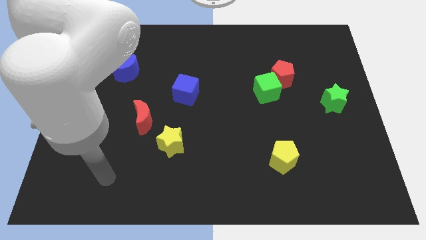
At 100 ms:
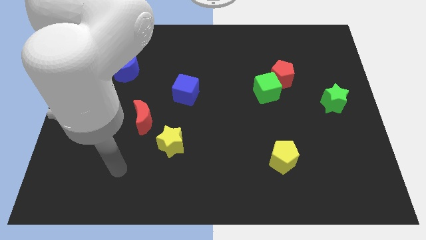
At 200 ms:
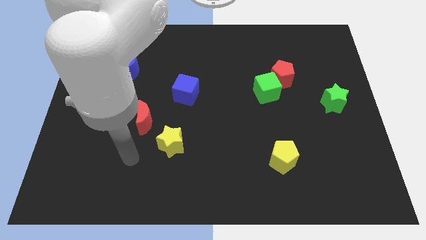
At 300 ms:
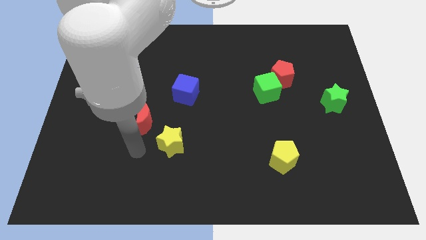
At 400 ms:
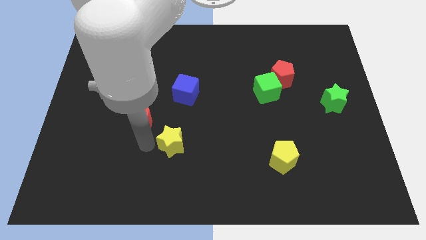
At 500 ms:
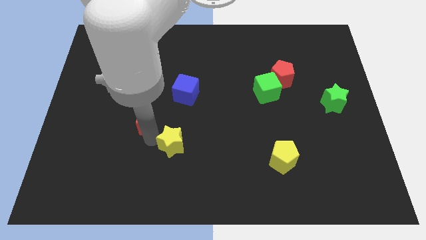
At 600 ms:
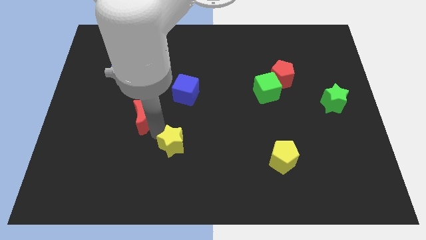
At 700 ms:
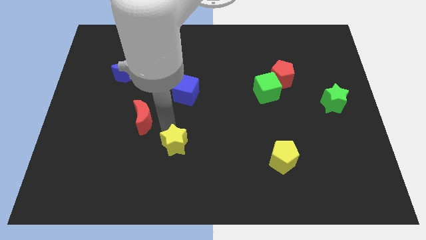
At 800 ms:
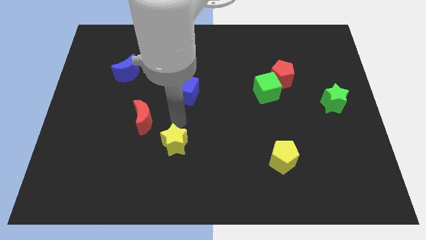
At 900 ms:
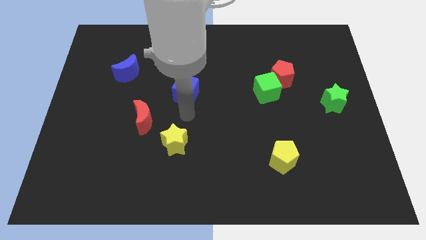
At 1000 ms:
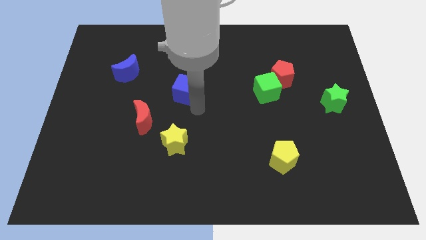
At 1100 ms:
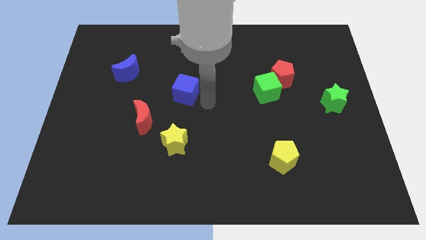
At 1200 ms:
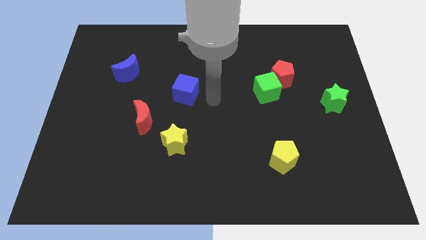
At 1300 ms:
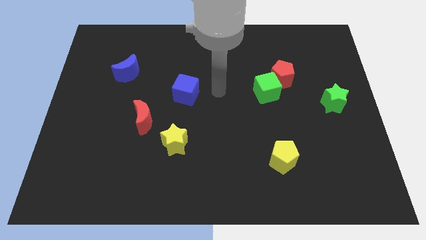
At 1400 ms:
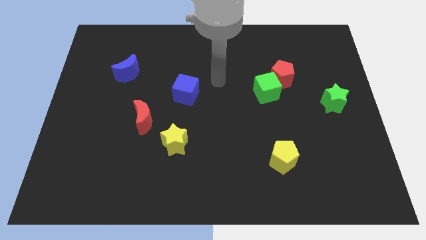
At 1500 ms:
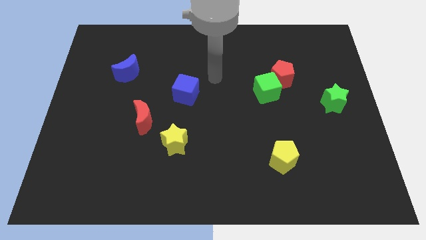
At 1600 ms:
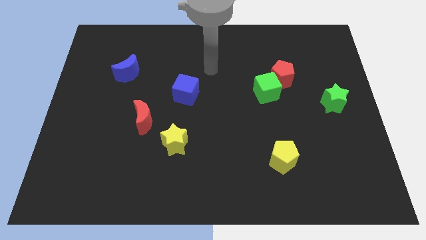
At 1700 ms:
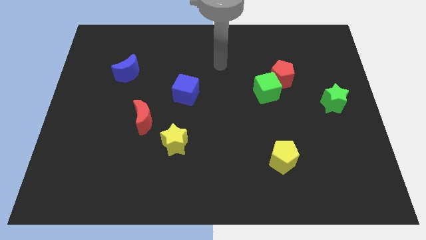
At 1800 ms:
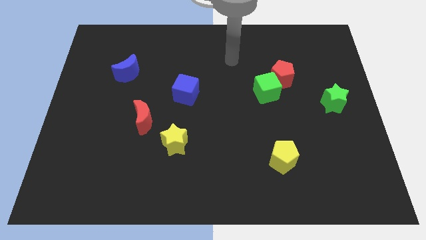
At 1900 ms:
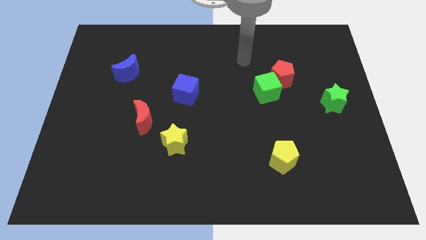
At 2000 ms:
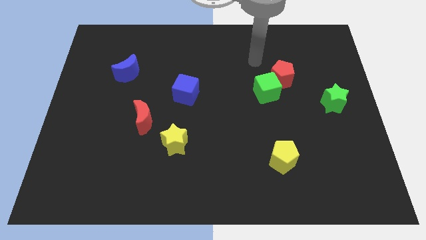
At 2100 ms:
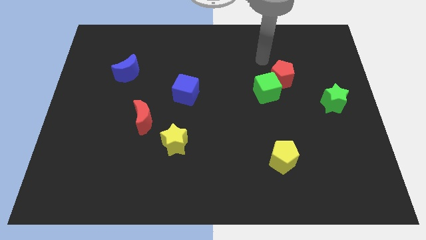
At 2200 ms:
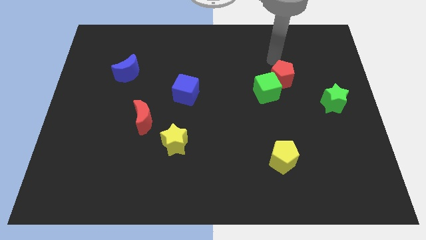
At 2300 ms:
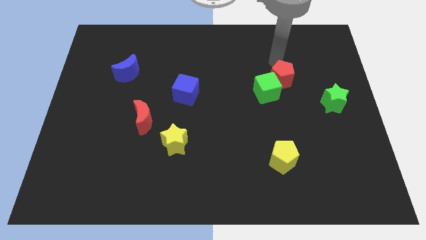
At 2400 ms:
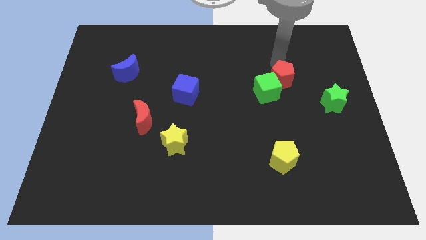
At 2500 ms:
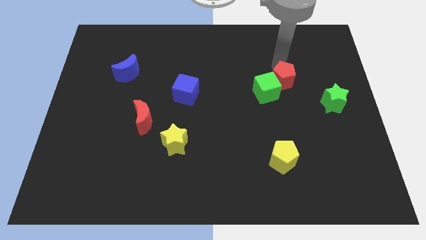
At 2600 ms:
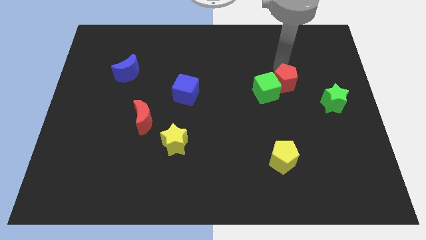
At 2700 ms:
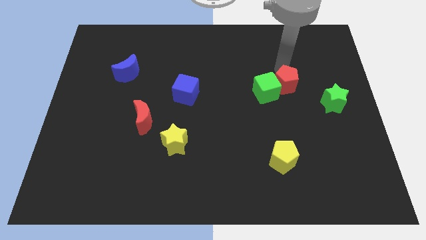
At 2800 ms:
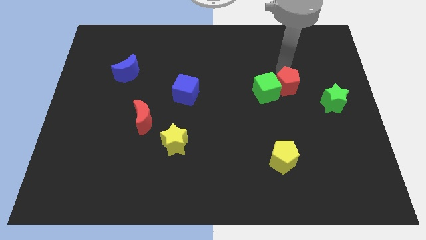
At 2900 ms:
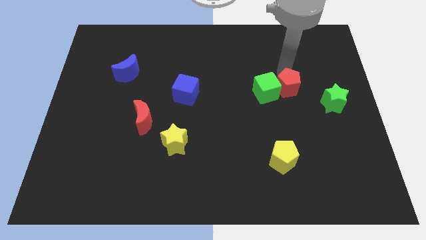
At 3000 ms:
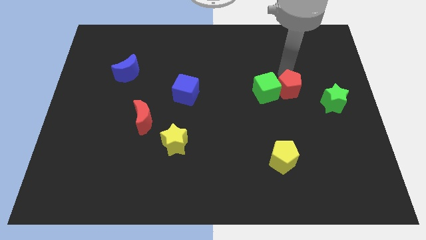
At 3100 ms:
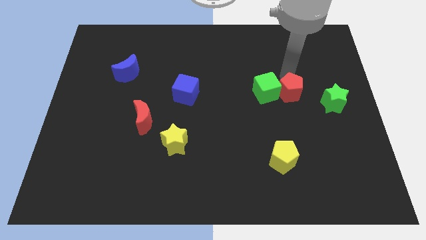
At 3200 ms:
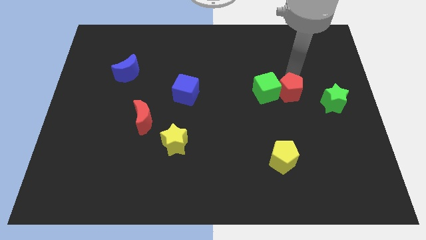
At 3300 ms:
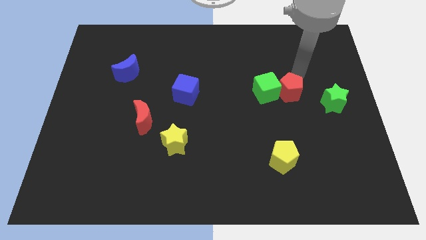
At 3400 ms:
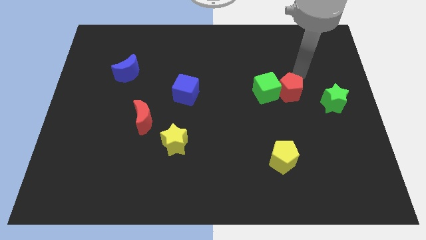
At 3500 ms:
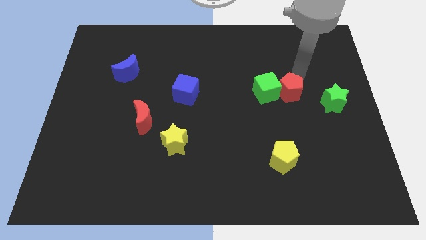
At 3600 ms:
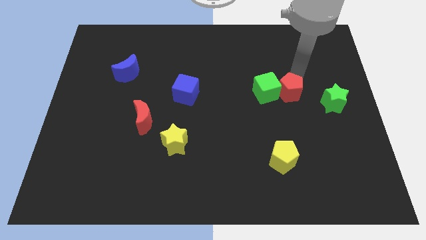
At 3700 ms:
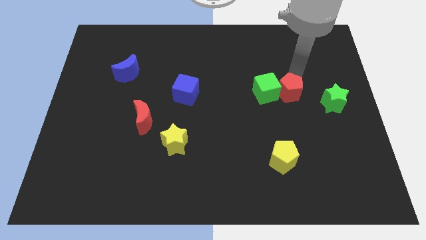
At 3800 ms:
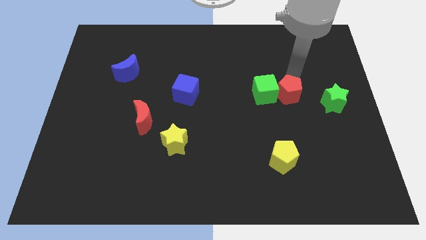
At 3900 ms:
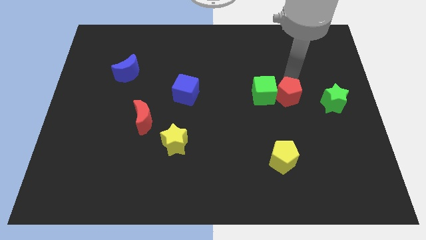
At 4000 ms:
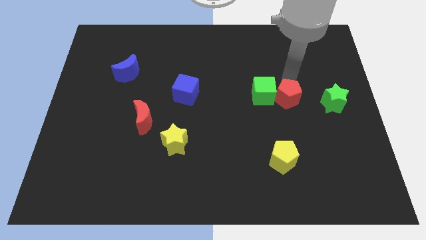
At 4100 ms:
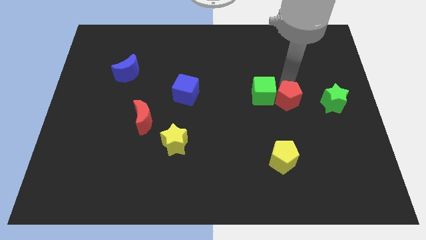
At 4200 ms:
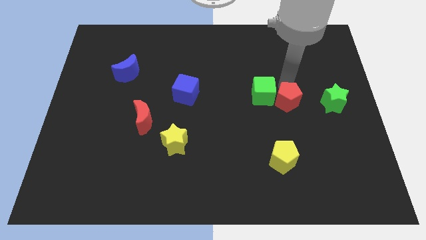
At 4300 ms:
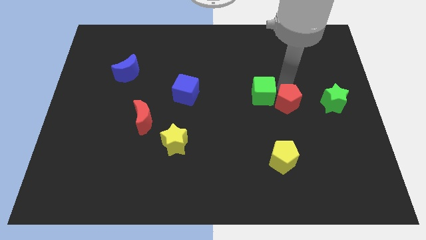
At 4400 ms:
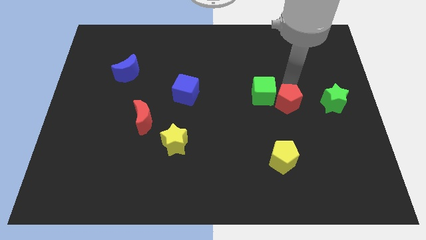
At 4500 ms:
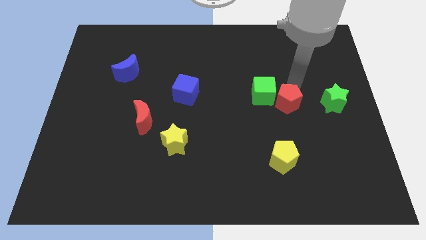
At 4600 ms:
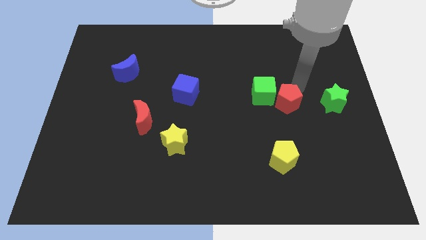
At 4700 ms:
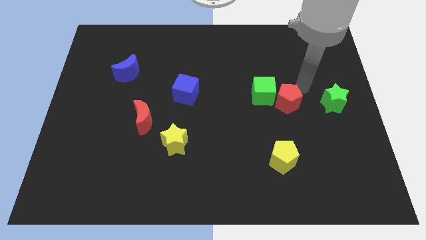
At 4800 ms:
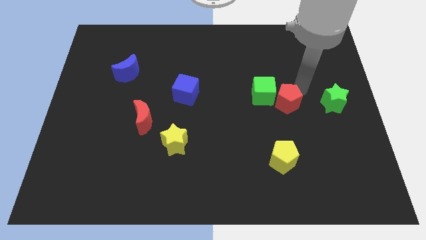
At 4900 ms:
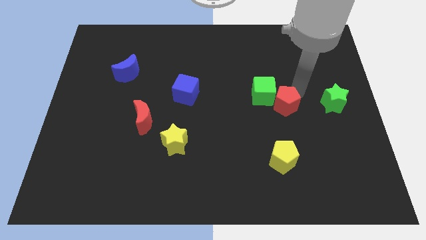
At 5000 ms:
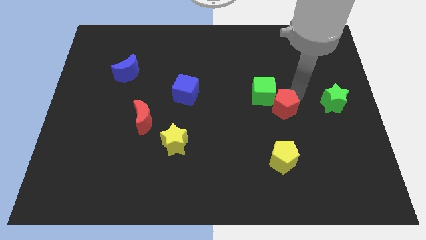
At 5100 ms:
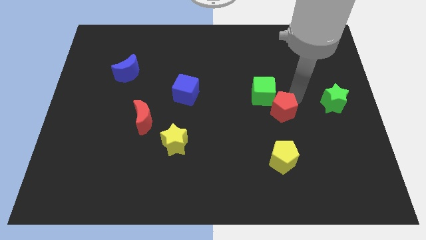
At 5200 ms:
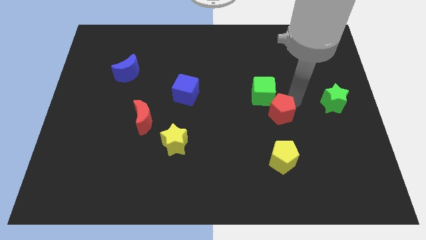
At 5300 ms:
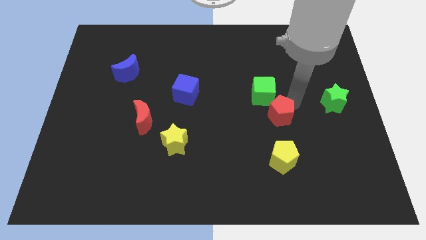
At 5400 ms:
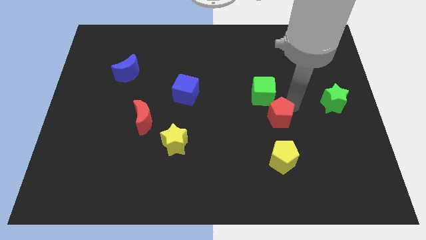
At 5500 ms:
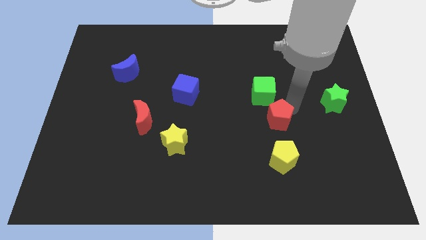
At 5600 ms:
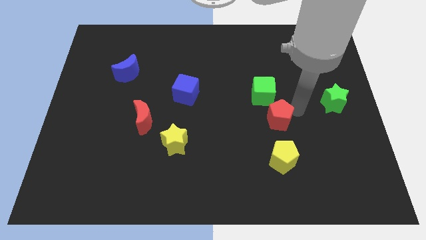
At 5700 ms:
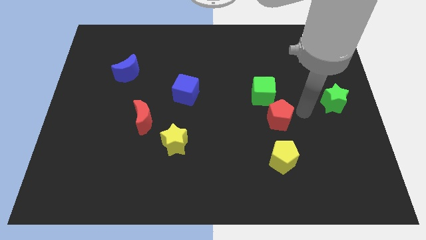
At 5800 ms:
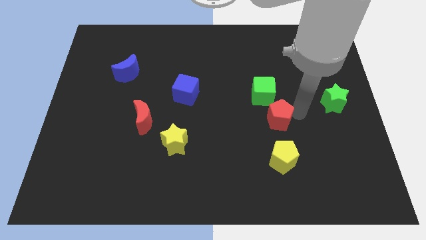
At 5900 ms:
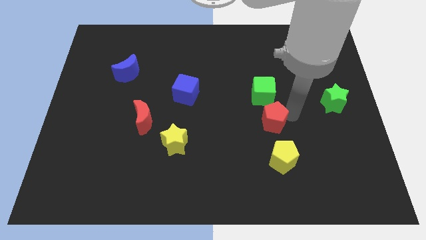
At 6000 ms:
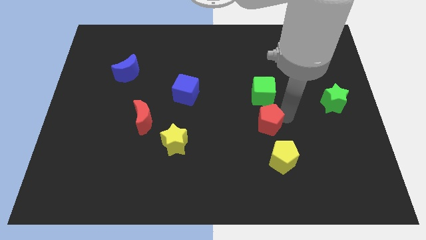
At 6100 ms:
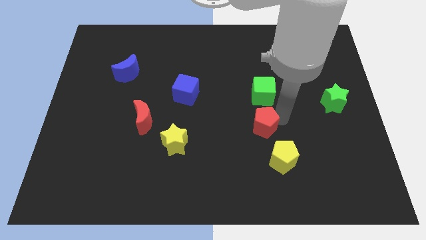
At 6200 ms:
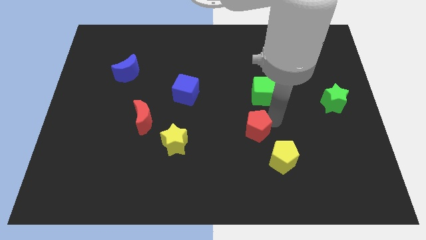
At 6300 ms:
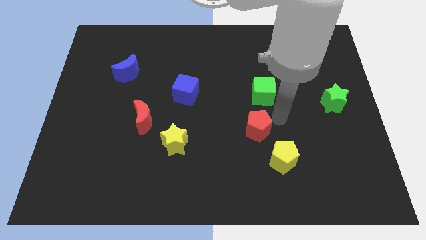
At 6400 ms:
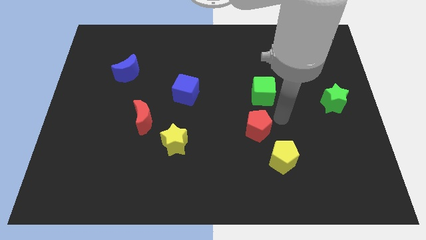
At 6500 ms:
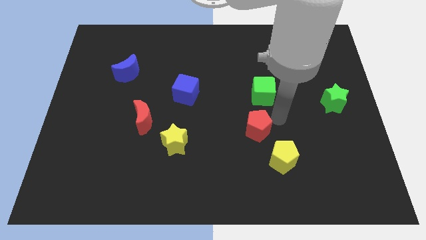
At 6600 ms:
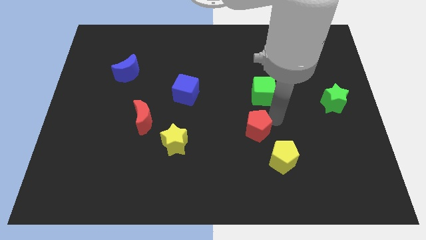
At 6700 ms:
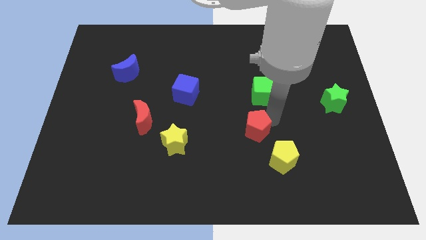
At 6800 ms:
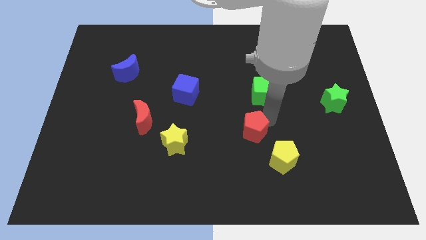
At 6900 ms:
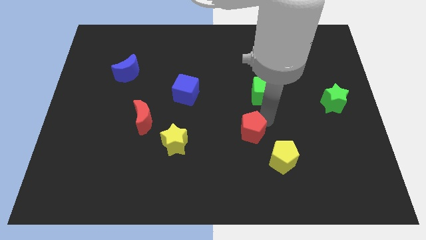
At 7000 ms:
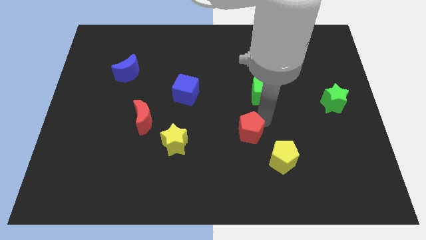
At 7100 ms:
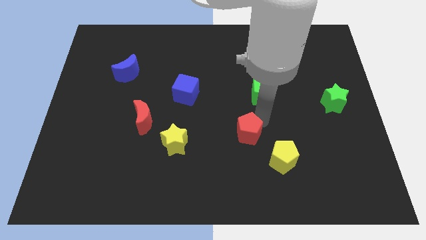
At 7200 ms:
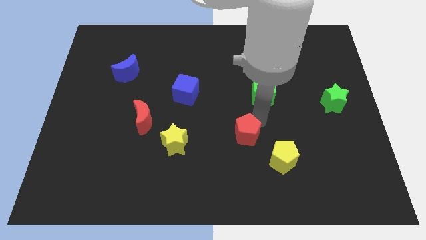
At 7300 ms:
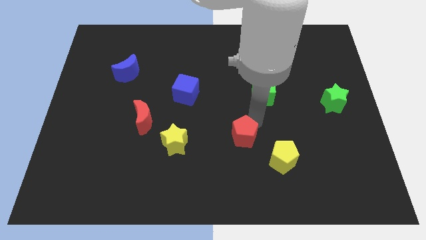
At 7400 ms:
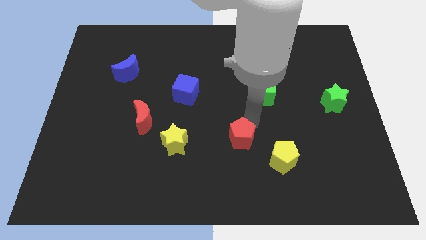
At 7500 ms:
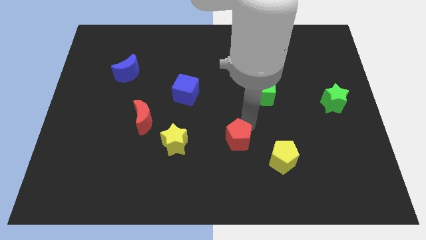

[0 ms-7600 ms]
slide the red pentagon downwards and left diagonally

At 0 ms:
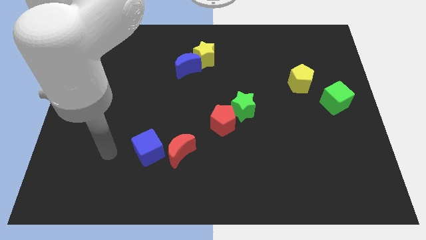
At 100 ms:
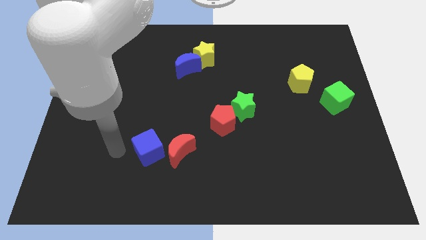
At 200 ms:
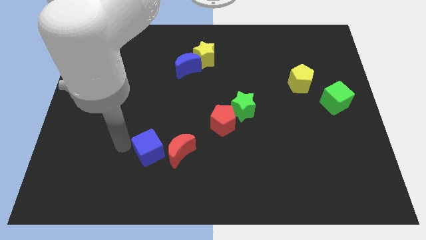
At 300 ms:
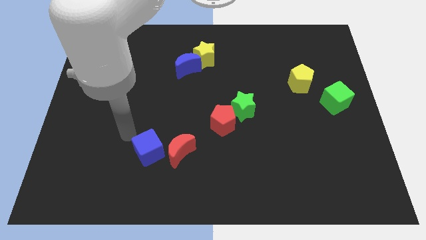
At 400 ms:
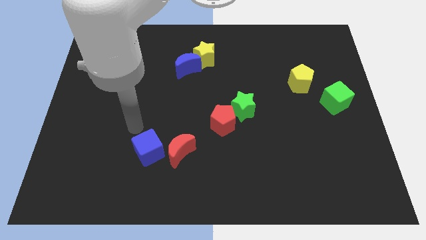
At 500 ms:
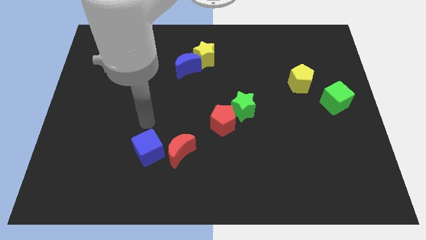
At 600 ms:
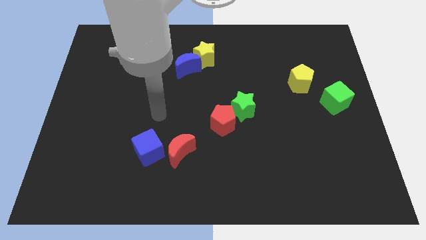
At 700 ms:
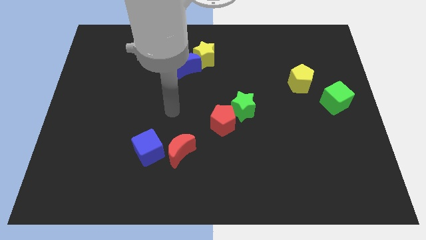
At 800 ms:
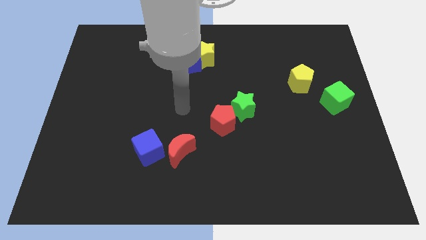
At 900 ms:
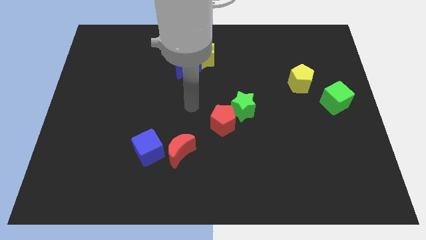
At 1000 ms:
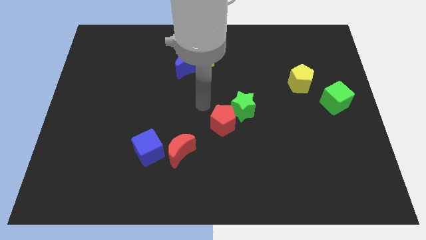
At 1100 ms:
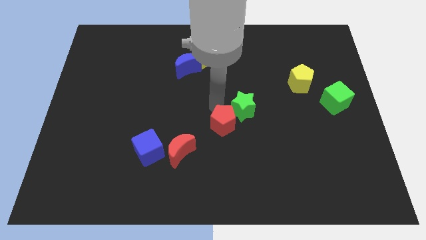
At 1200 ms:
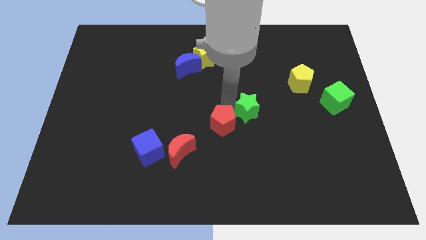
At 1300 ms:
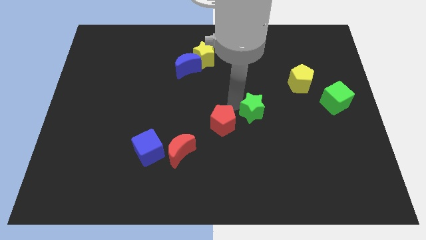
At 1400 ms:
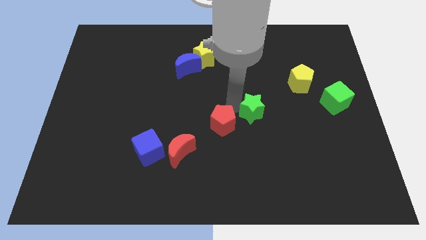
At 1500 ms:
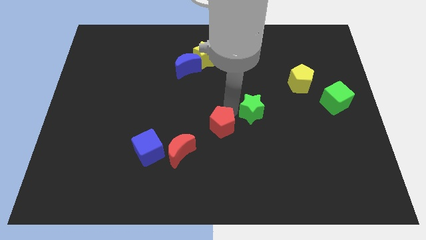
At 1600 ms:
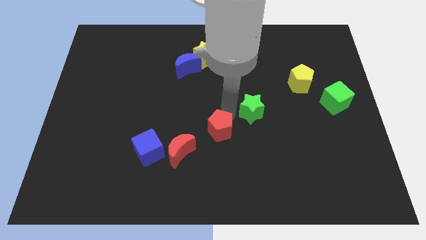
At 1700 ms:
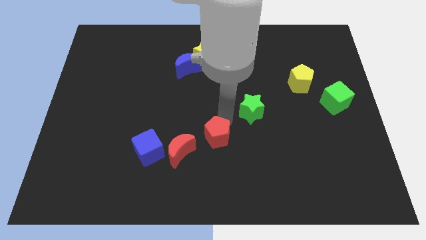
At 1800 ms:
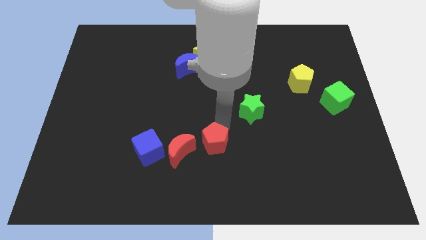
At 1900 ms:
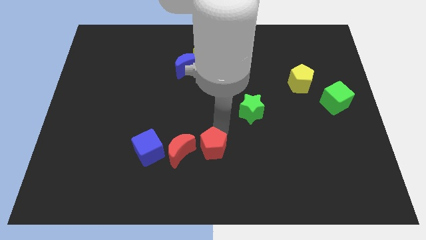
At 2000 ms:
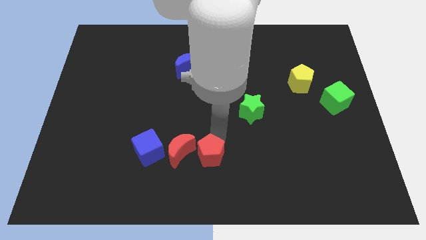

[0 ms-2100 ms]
slightly push the red pentagon downwards and then to the left
